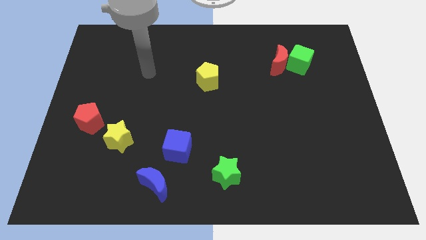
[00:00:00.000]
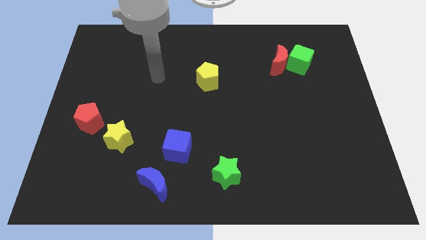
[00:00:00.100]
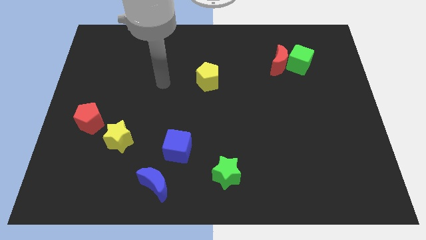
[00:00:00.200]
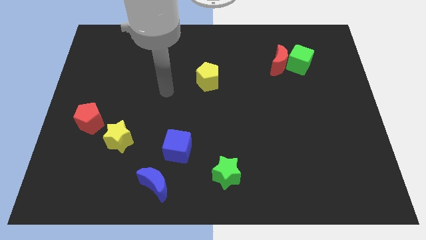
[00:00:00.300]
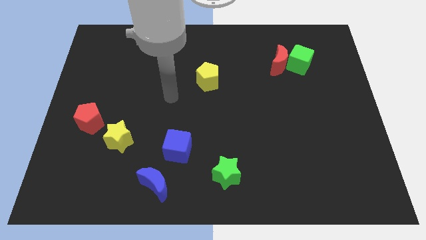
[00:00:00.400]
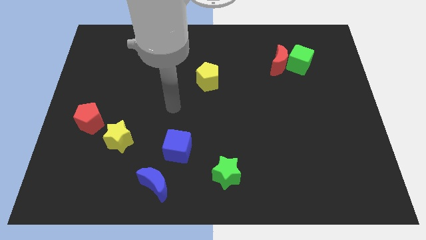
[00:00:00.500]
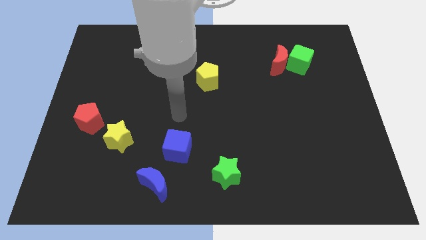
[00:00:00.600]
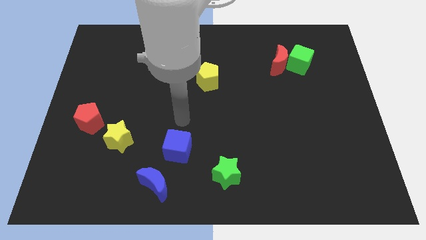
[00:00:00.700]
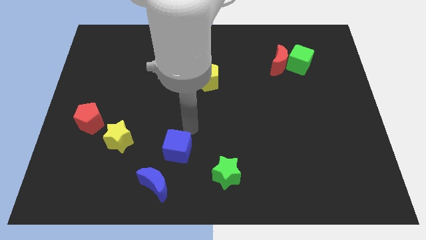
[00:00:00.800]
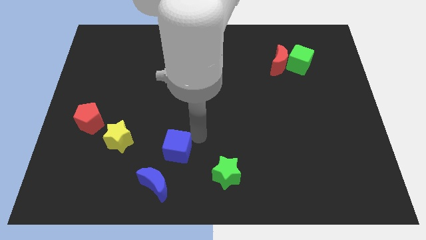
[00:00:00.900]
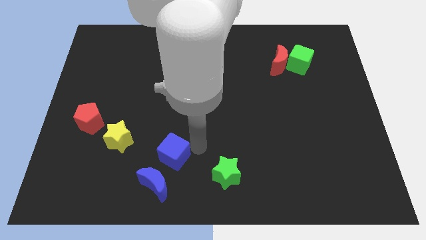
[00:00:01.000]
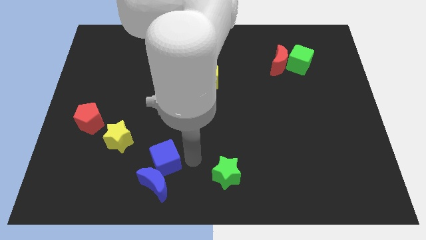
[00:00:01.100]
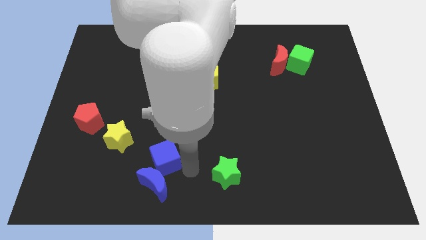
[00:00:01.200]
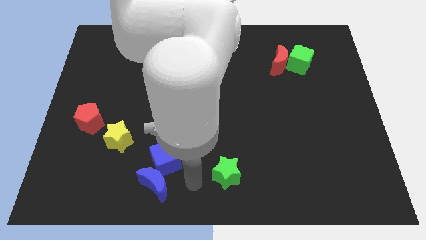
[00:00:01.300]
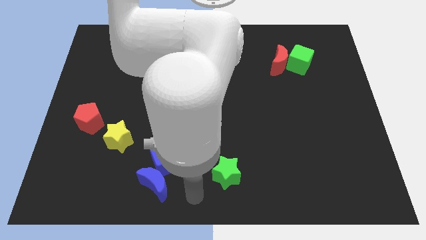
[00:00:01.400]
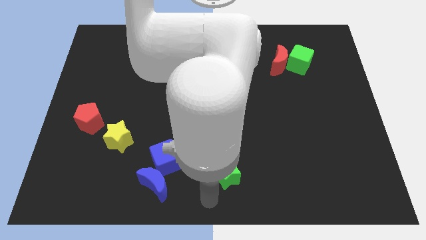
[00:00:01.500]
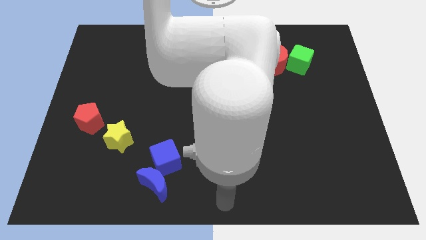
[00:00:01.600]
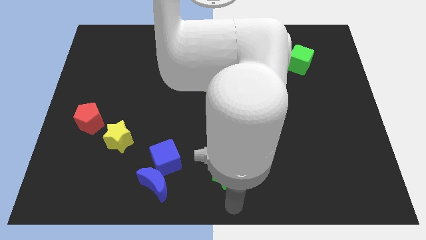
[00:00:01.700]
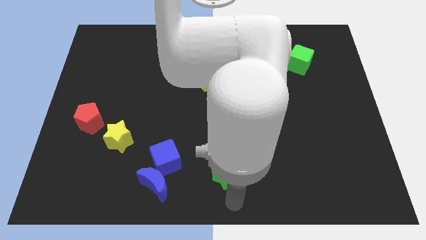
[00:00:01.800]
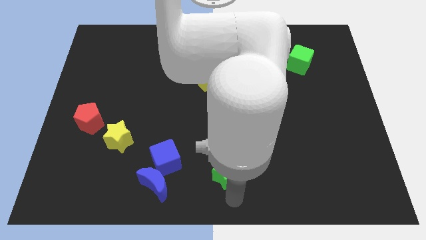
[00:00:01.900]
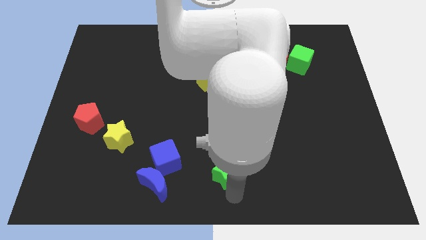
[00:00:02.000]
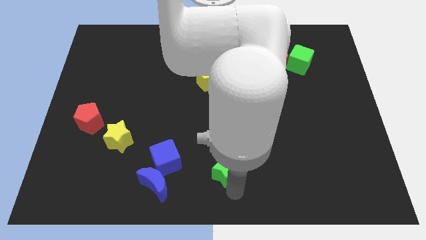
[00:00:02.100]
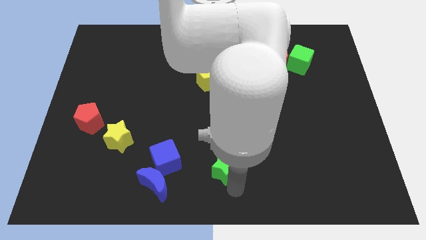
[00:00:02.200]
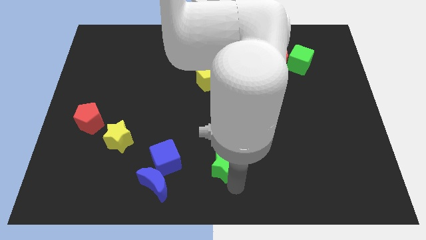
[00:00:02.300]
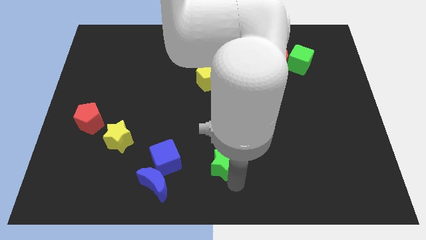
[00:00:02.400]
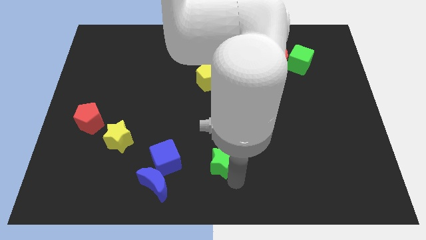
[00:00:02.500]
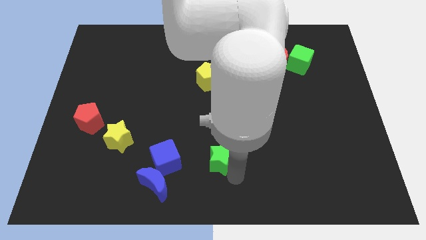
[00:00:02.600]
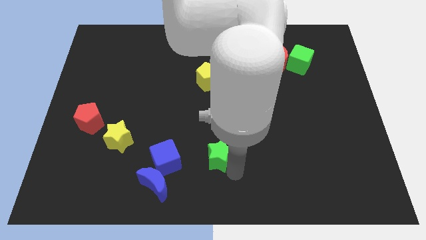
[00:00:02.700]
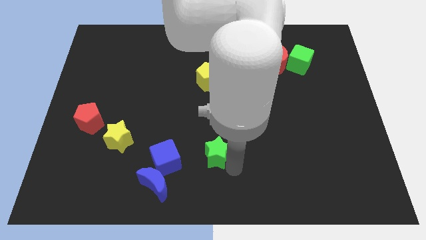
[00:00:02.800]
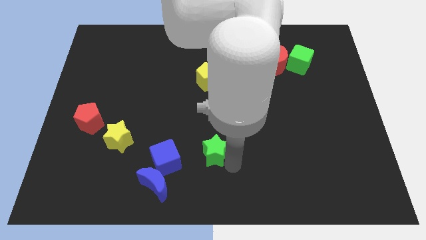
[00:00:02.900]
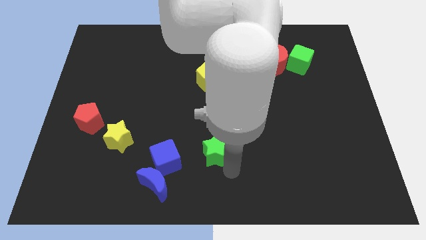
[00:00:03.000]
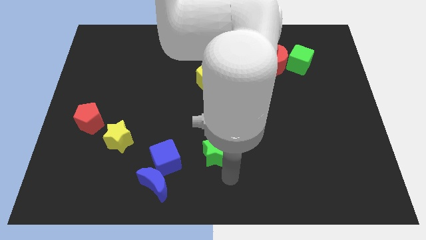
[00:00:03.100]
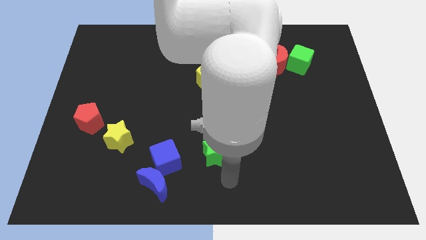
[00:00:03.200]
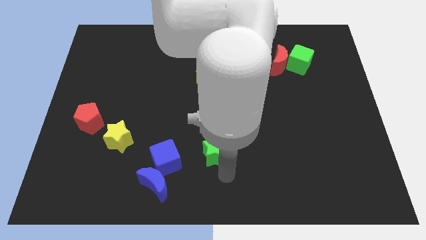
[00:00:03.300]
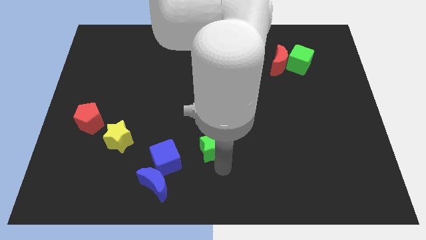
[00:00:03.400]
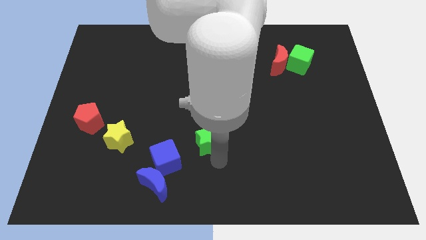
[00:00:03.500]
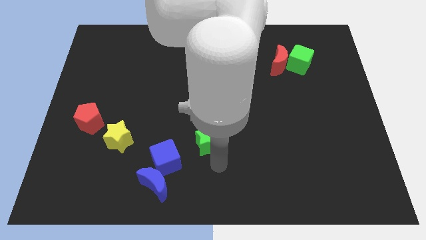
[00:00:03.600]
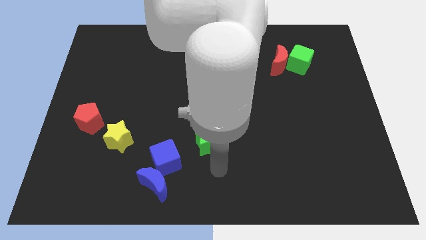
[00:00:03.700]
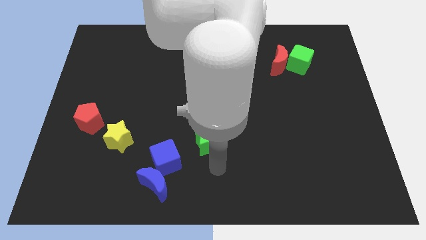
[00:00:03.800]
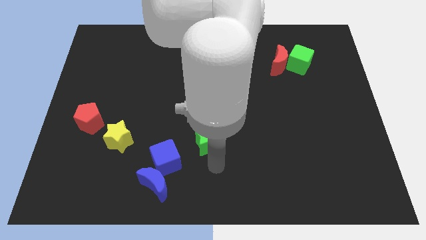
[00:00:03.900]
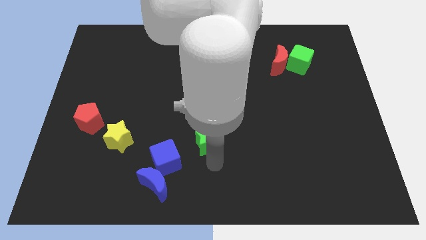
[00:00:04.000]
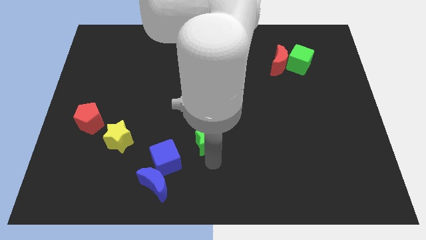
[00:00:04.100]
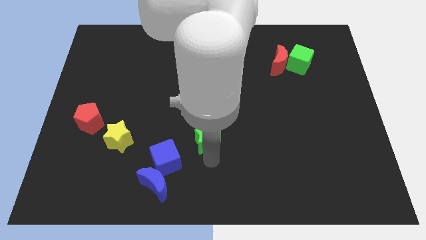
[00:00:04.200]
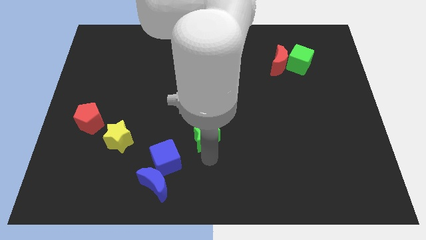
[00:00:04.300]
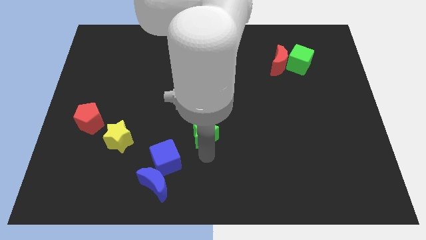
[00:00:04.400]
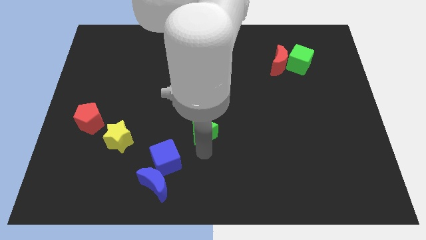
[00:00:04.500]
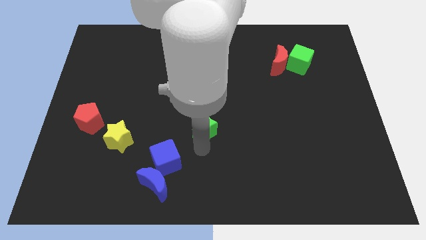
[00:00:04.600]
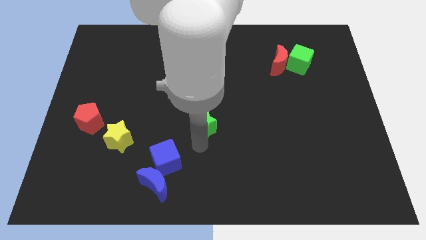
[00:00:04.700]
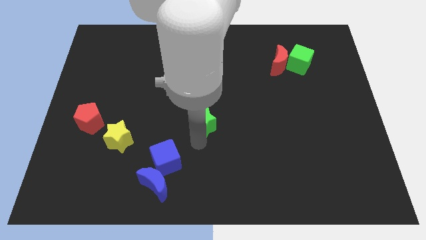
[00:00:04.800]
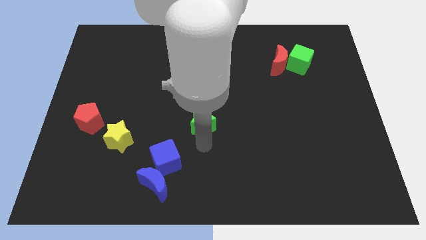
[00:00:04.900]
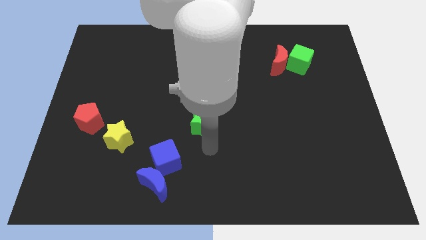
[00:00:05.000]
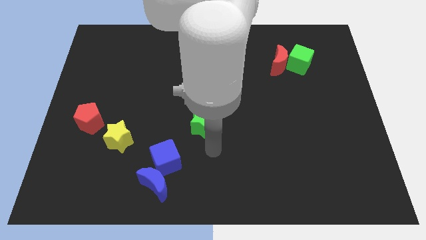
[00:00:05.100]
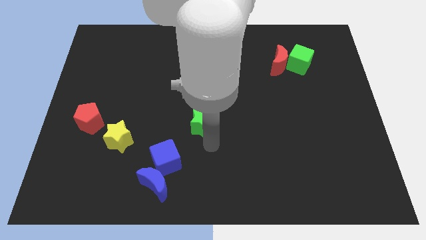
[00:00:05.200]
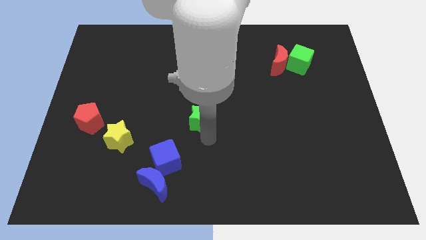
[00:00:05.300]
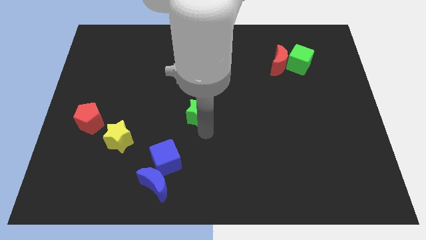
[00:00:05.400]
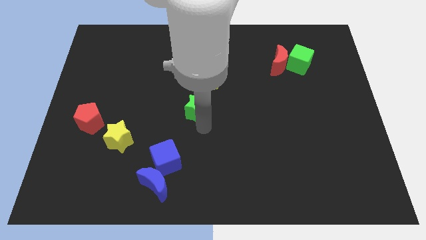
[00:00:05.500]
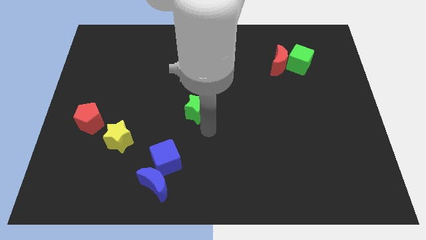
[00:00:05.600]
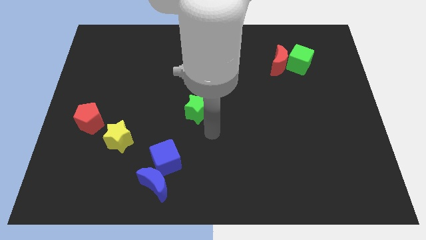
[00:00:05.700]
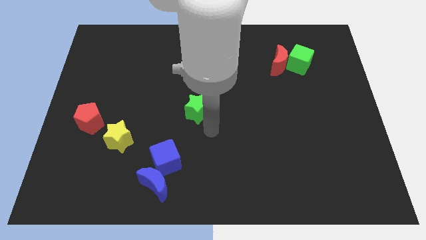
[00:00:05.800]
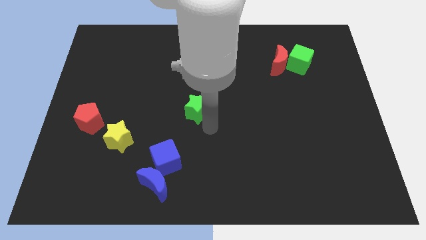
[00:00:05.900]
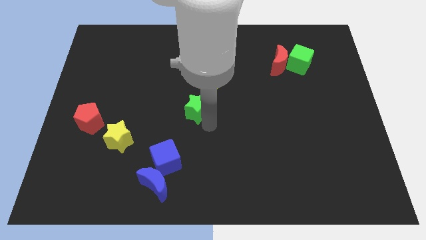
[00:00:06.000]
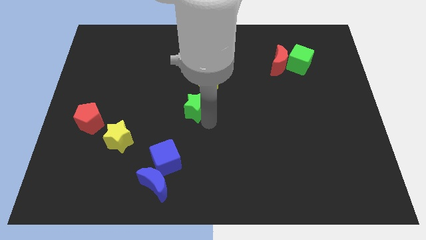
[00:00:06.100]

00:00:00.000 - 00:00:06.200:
move the green star to the bottom left side of the yellow pentagon

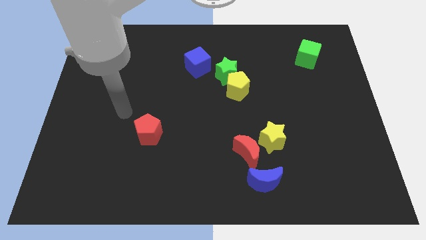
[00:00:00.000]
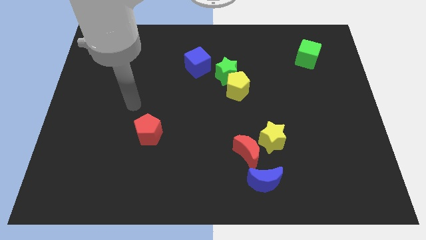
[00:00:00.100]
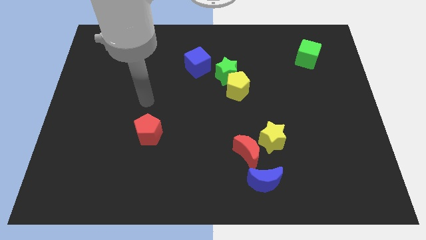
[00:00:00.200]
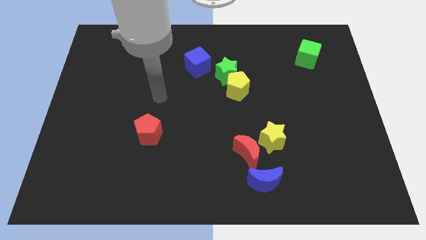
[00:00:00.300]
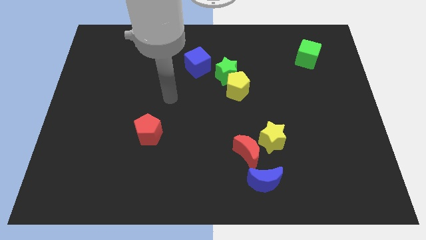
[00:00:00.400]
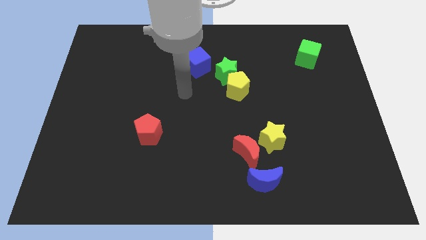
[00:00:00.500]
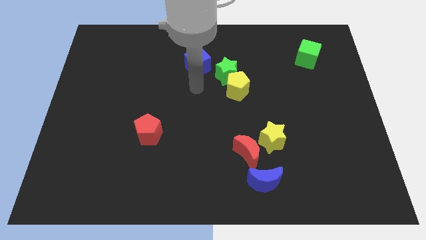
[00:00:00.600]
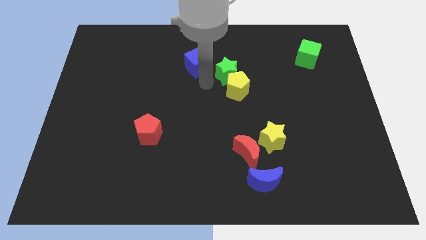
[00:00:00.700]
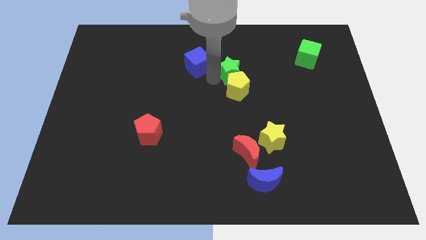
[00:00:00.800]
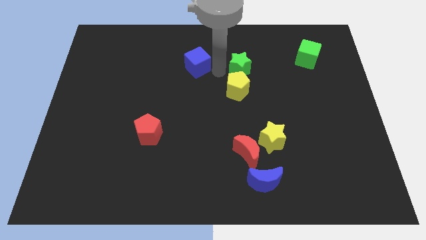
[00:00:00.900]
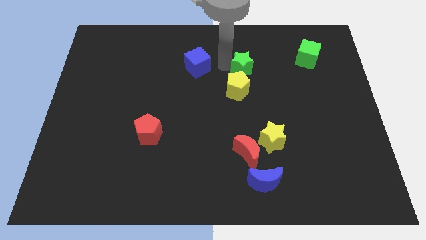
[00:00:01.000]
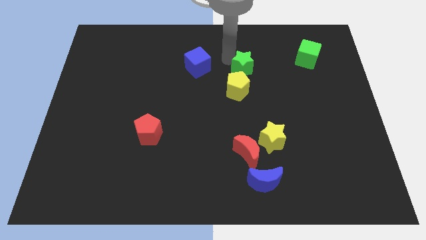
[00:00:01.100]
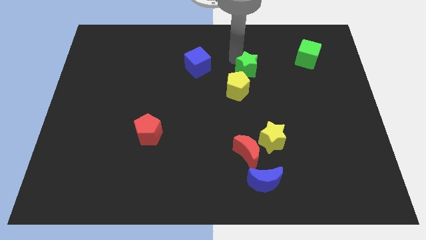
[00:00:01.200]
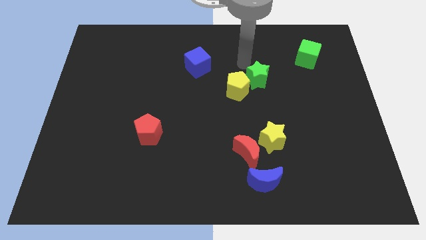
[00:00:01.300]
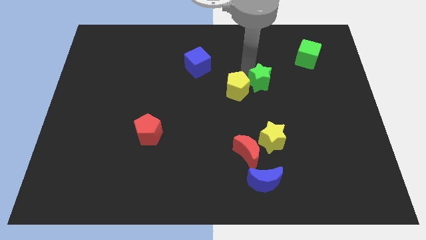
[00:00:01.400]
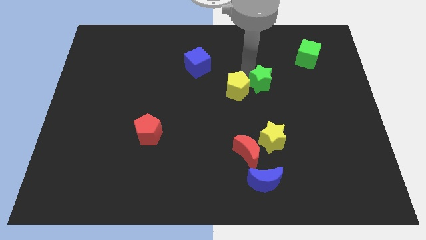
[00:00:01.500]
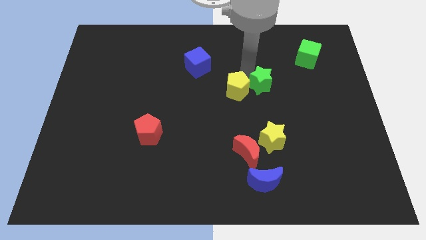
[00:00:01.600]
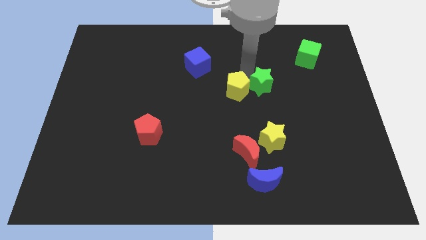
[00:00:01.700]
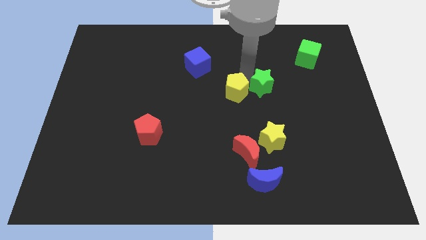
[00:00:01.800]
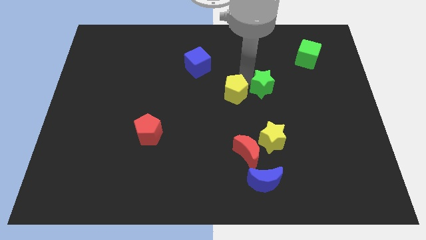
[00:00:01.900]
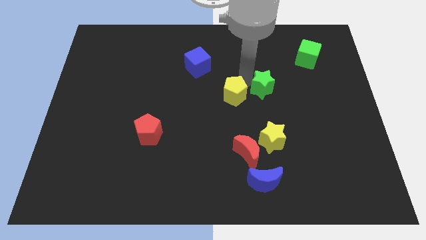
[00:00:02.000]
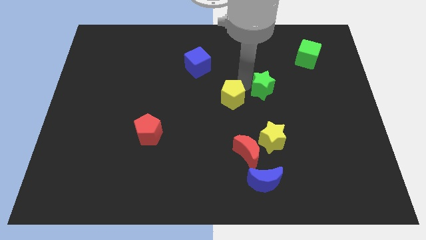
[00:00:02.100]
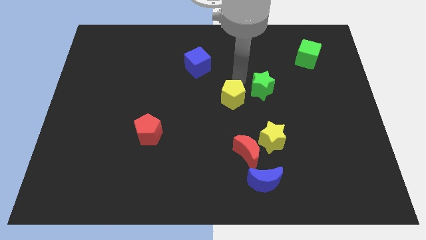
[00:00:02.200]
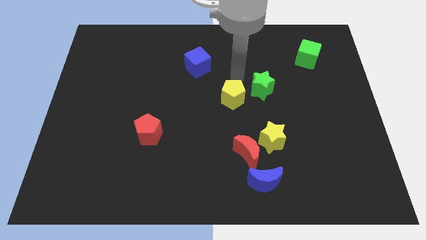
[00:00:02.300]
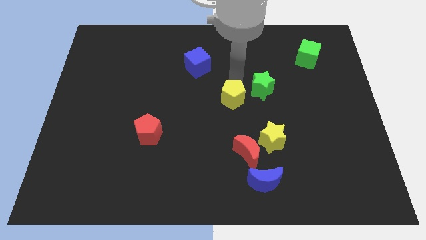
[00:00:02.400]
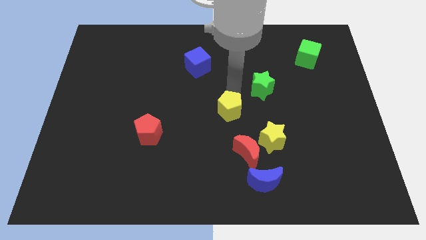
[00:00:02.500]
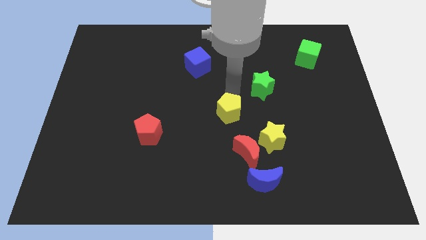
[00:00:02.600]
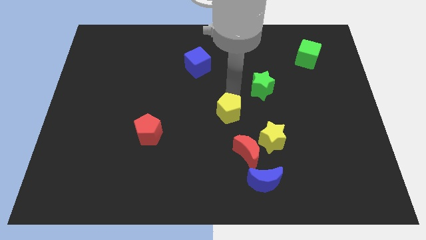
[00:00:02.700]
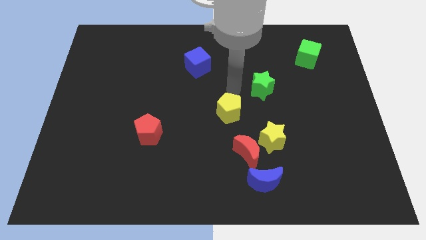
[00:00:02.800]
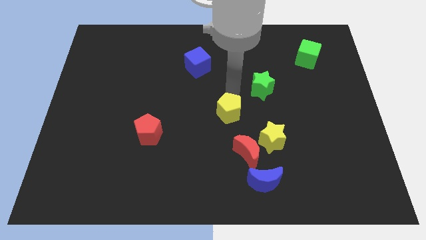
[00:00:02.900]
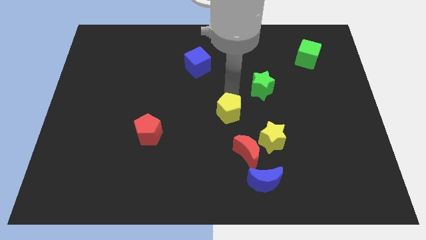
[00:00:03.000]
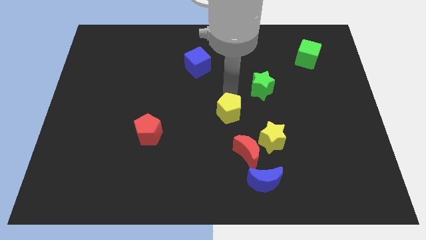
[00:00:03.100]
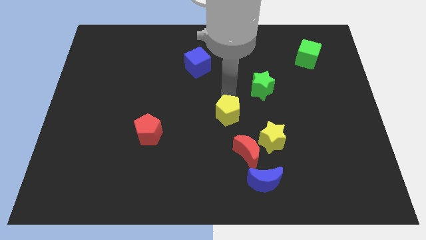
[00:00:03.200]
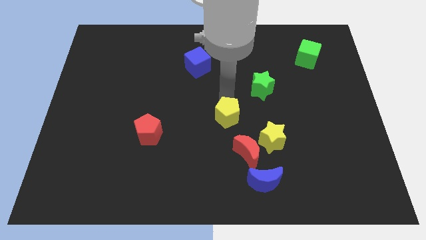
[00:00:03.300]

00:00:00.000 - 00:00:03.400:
slide the yellow pentagon diagonally up and to the left of the red moon
